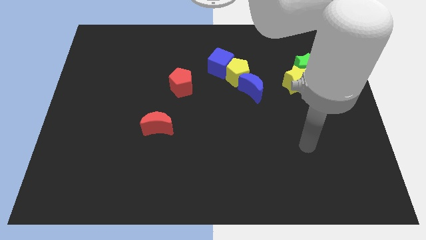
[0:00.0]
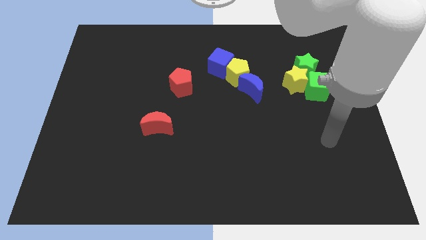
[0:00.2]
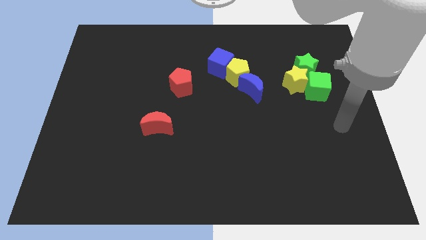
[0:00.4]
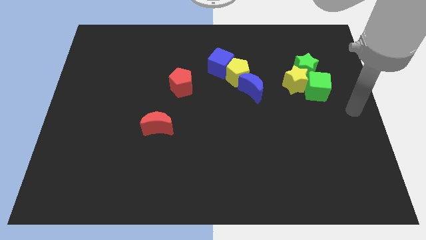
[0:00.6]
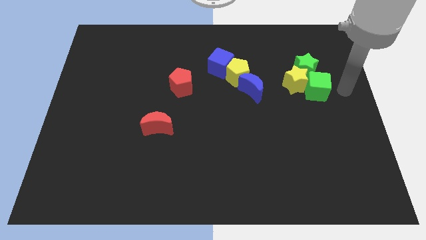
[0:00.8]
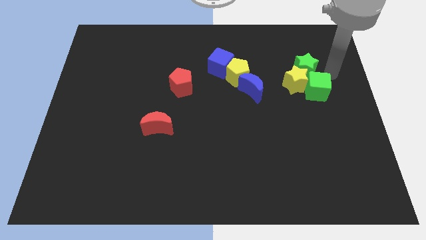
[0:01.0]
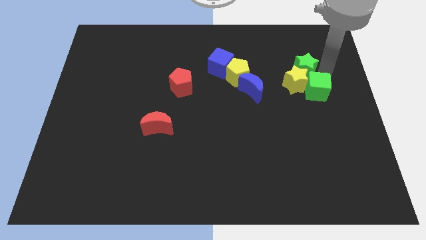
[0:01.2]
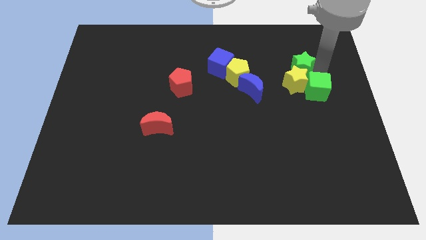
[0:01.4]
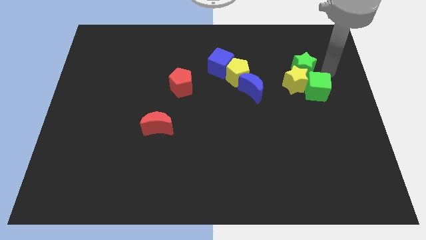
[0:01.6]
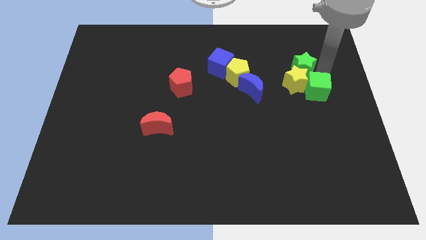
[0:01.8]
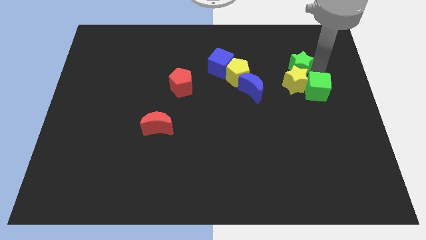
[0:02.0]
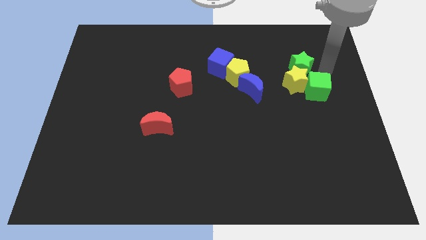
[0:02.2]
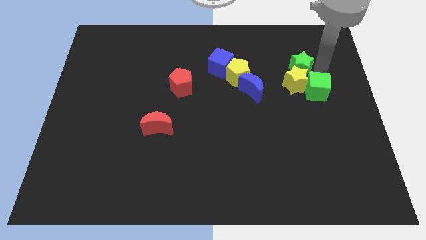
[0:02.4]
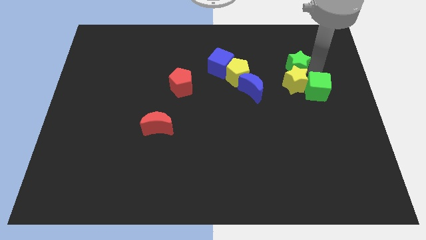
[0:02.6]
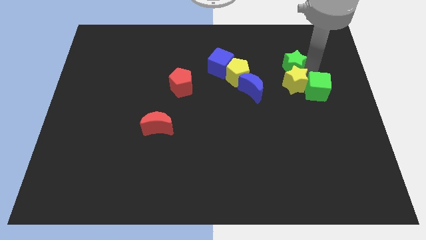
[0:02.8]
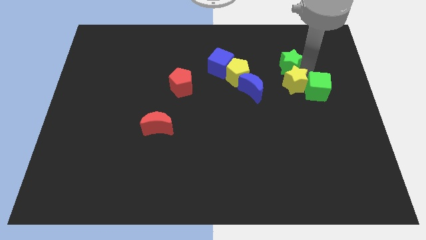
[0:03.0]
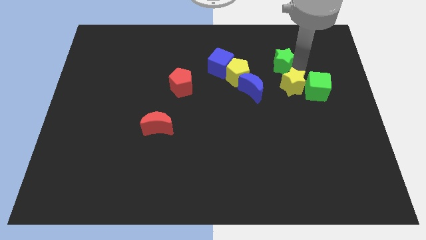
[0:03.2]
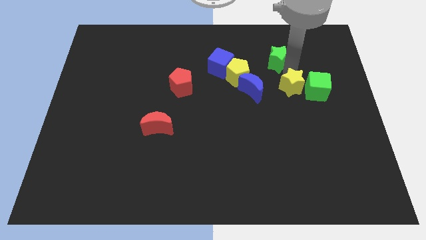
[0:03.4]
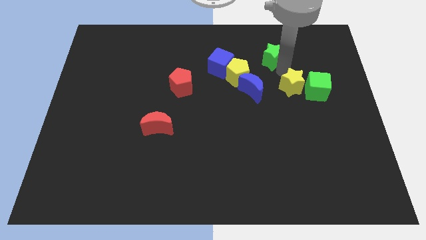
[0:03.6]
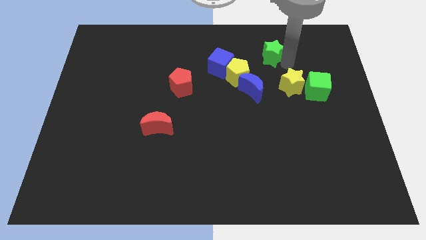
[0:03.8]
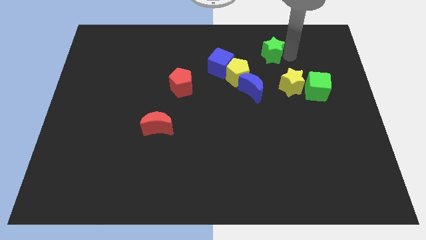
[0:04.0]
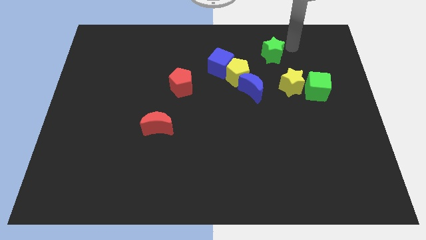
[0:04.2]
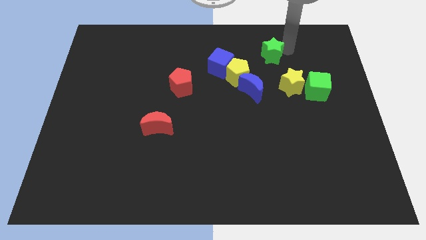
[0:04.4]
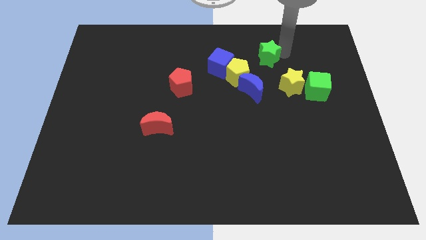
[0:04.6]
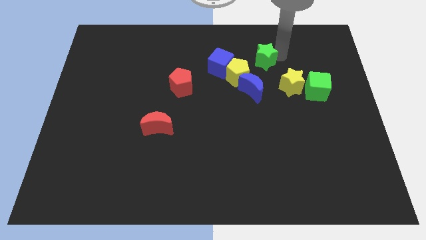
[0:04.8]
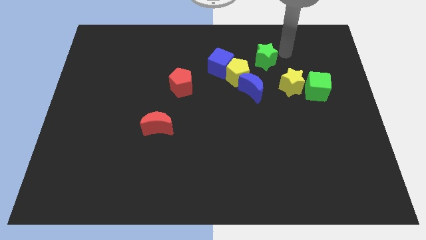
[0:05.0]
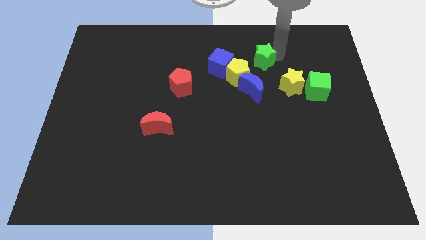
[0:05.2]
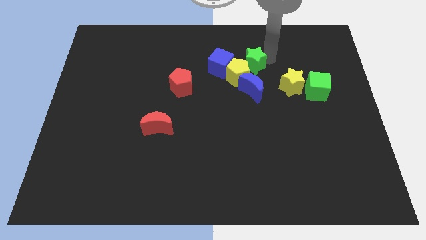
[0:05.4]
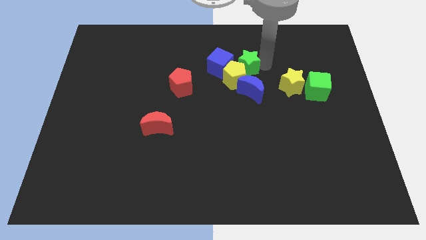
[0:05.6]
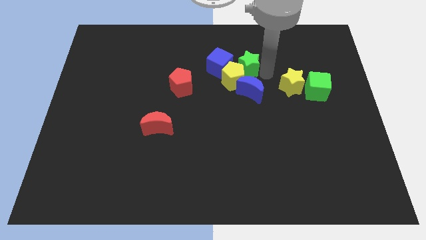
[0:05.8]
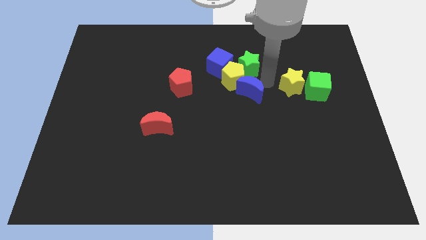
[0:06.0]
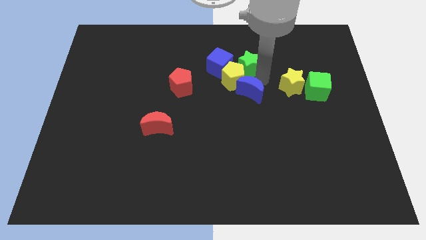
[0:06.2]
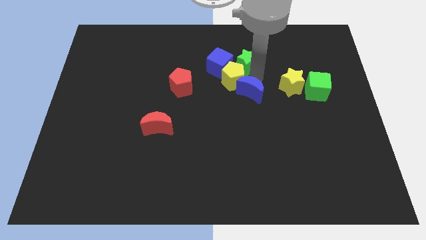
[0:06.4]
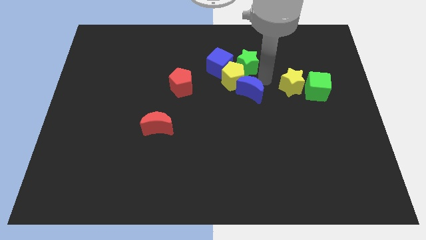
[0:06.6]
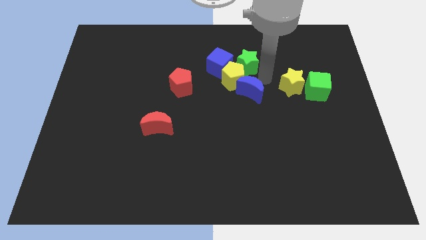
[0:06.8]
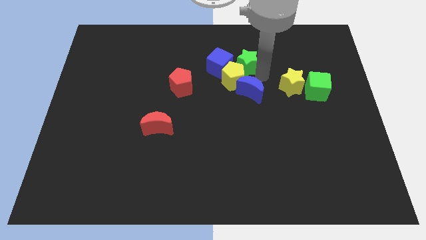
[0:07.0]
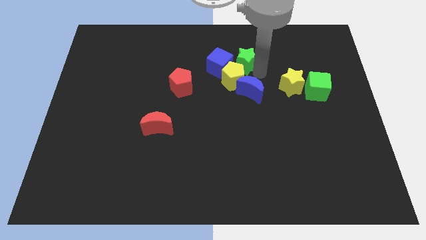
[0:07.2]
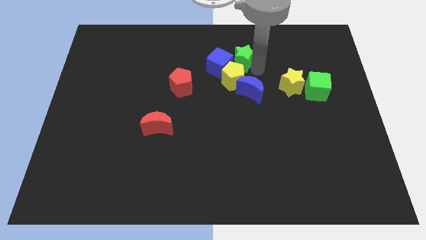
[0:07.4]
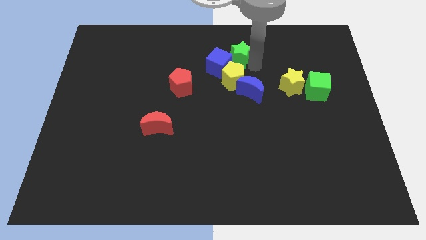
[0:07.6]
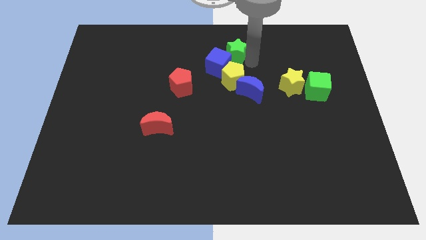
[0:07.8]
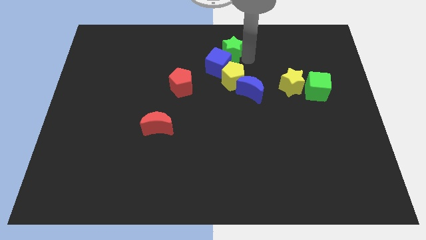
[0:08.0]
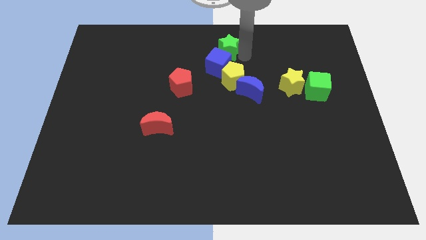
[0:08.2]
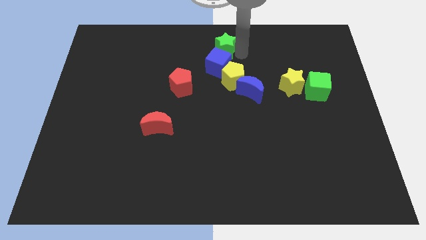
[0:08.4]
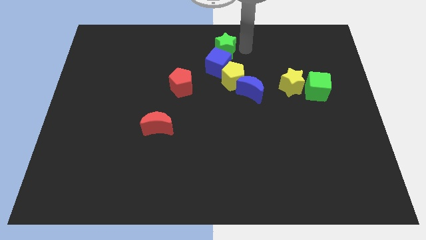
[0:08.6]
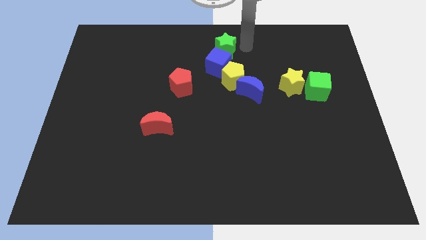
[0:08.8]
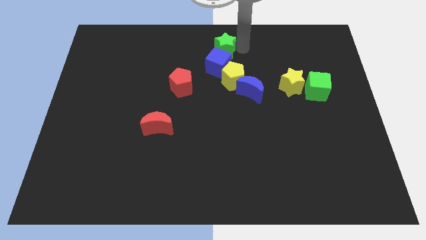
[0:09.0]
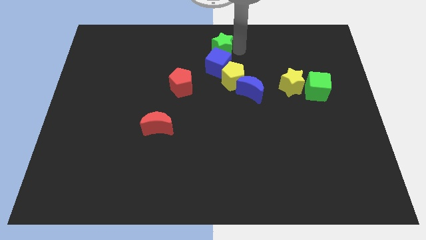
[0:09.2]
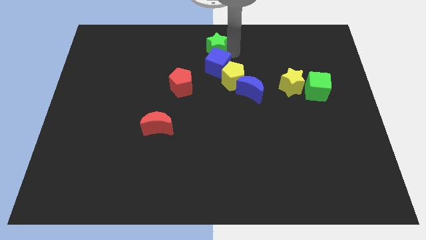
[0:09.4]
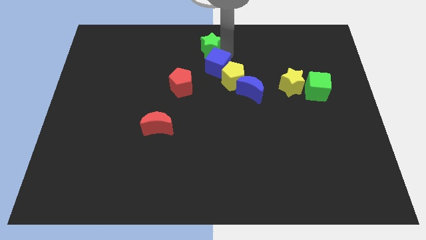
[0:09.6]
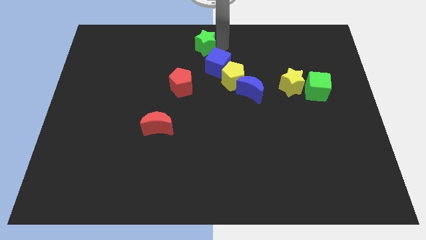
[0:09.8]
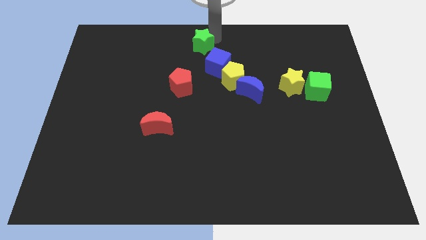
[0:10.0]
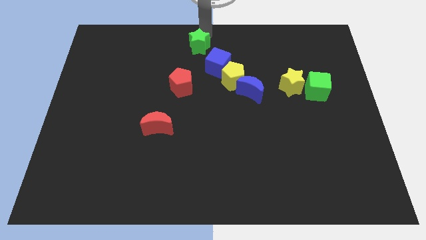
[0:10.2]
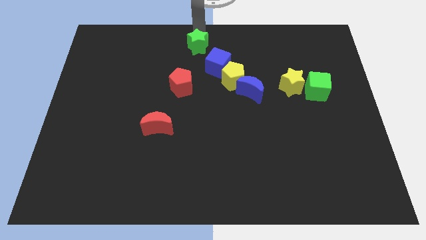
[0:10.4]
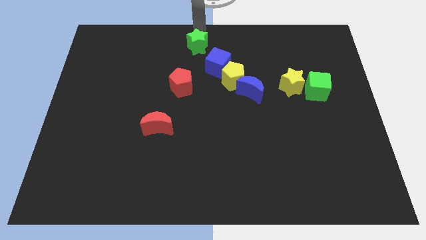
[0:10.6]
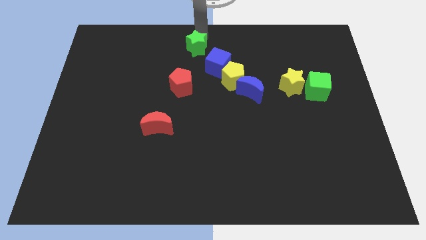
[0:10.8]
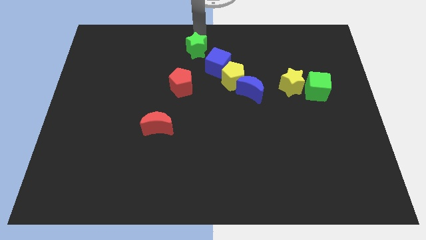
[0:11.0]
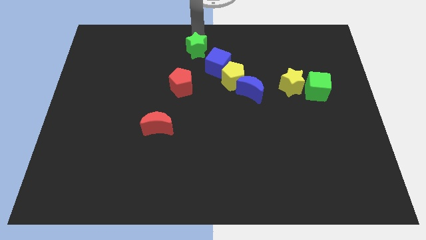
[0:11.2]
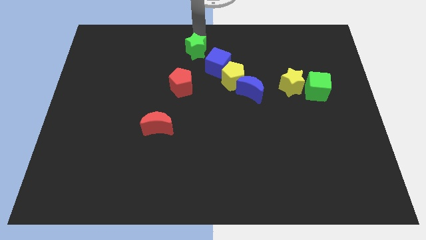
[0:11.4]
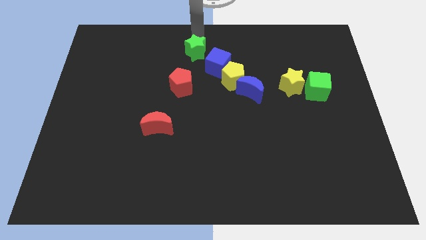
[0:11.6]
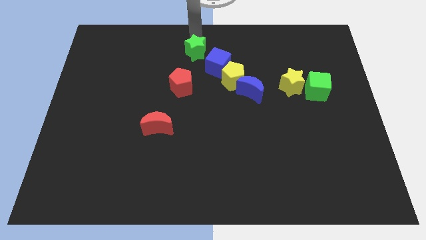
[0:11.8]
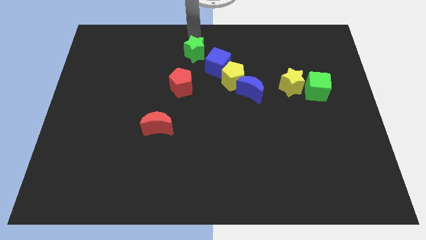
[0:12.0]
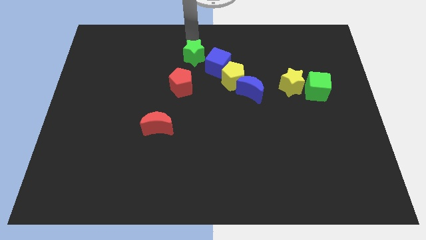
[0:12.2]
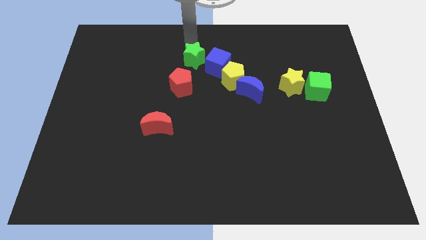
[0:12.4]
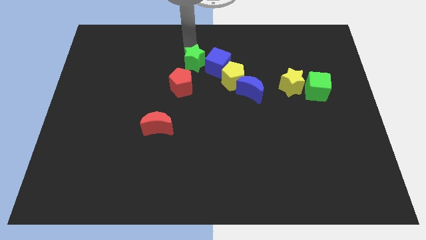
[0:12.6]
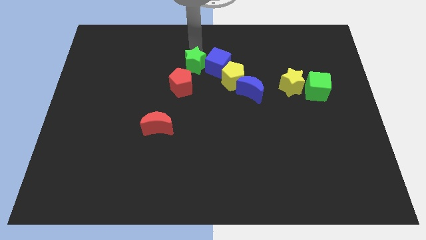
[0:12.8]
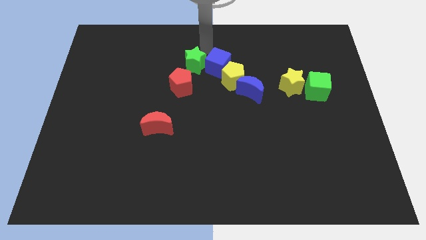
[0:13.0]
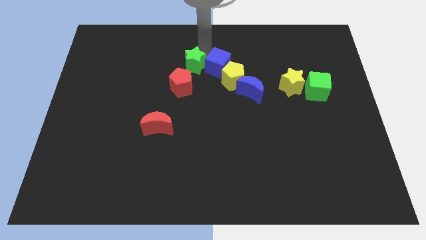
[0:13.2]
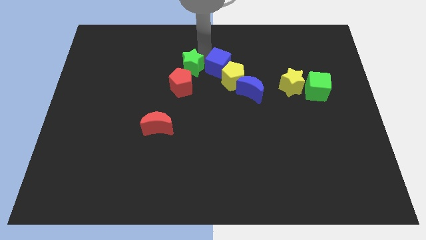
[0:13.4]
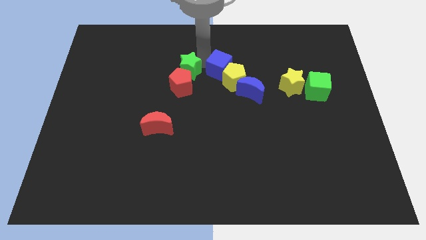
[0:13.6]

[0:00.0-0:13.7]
put the green star to the red pentagon

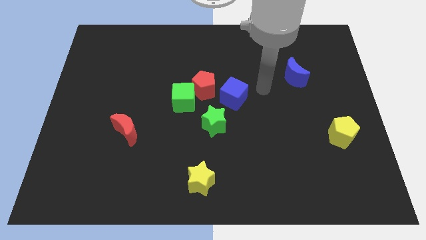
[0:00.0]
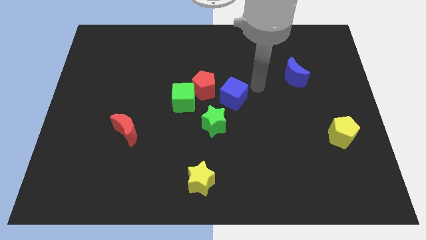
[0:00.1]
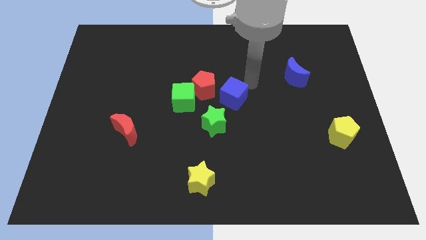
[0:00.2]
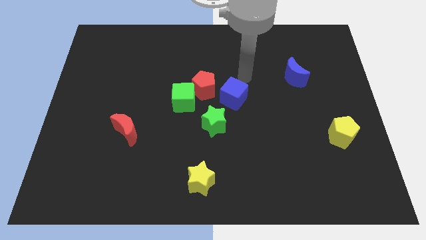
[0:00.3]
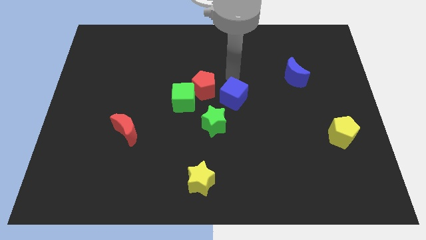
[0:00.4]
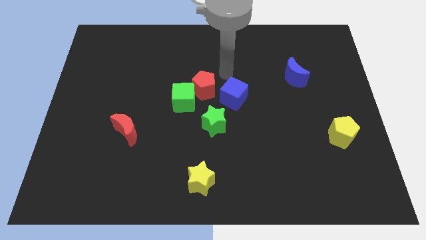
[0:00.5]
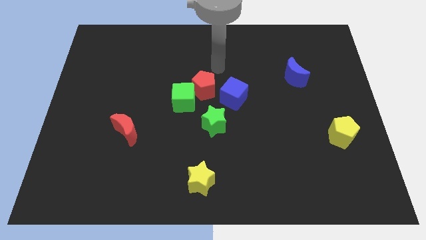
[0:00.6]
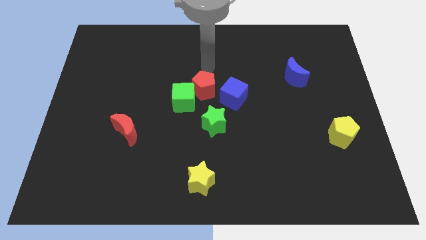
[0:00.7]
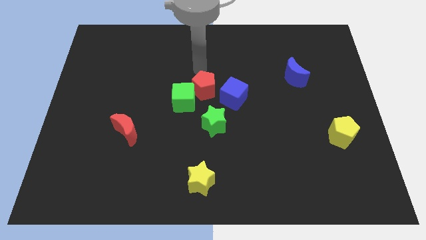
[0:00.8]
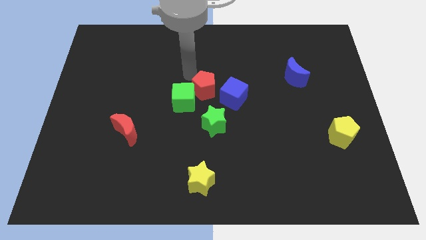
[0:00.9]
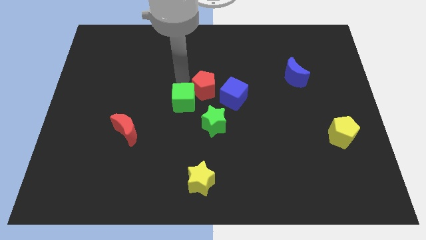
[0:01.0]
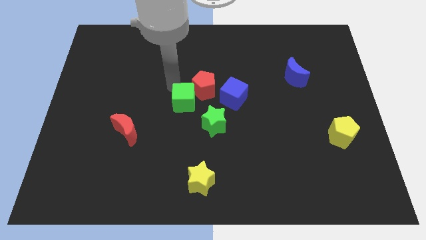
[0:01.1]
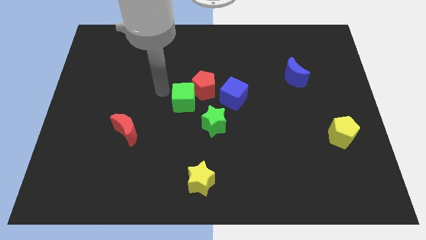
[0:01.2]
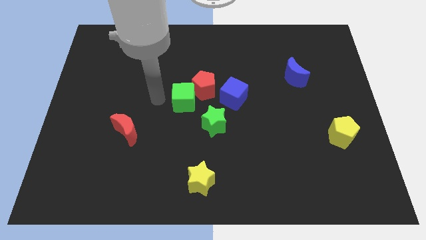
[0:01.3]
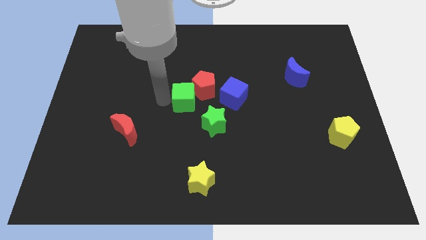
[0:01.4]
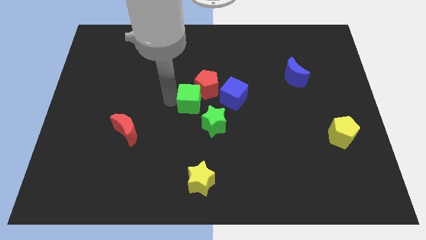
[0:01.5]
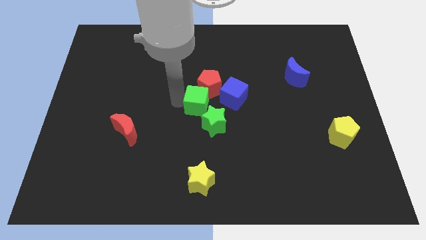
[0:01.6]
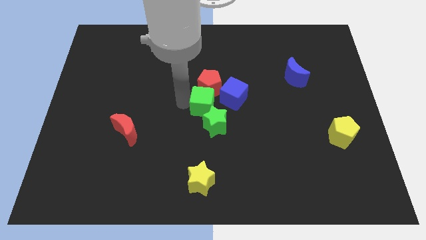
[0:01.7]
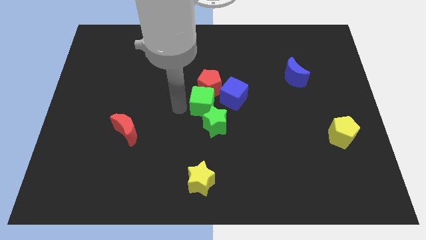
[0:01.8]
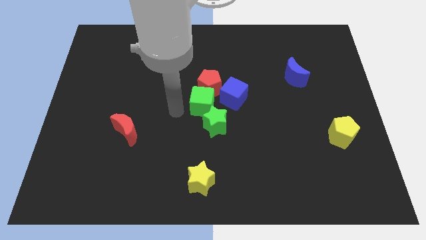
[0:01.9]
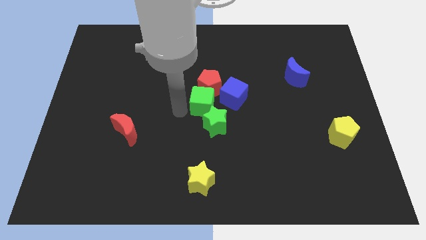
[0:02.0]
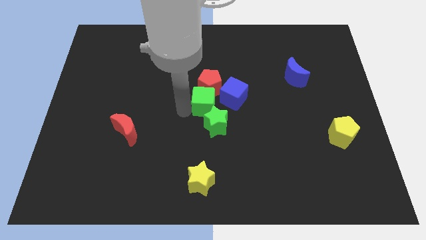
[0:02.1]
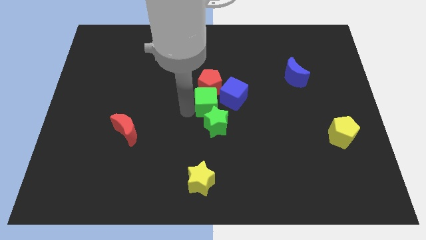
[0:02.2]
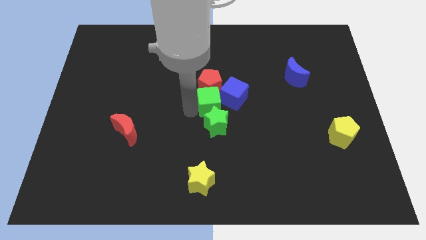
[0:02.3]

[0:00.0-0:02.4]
slide the green cube towards the blue cube
